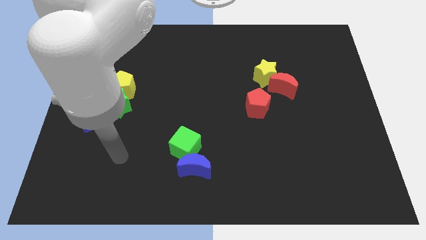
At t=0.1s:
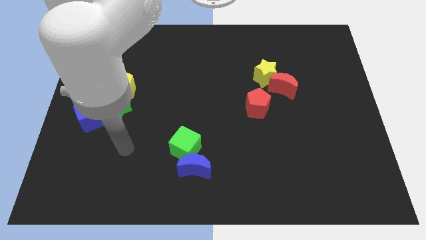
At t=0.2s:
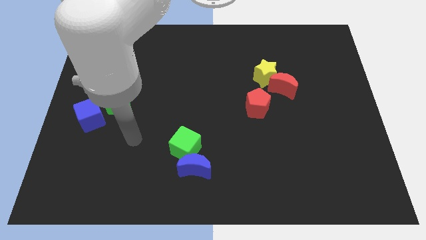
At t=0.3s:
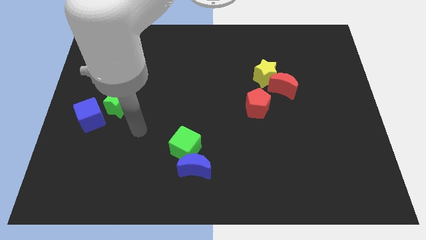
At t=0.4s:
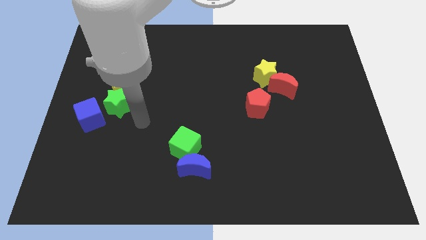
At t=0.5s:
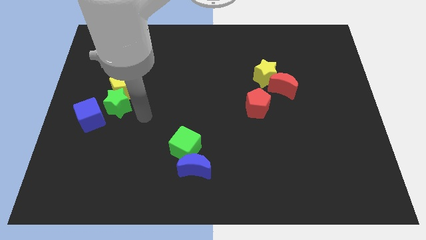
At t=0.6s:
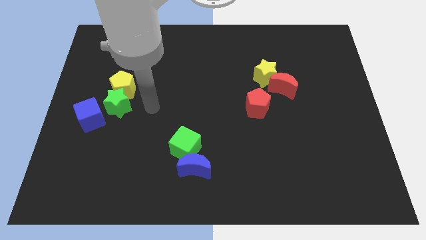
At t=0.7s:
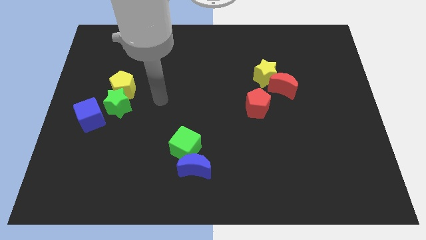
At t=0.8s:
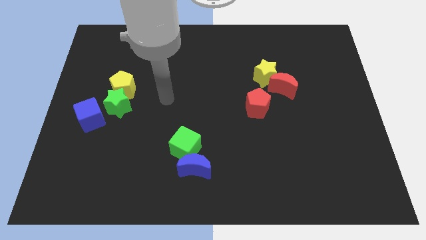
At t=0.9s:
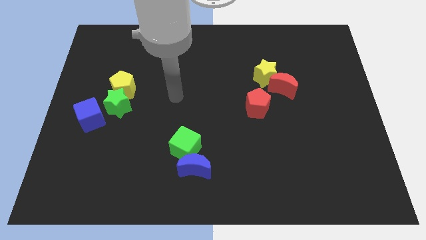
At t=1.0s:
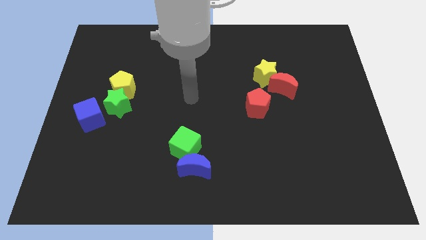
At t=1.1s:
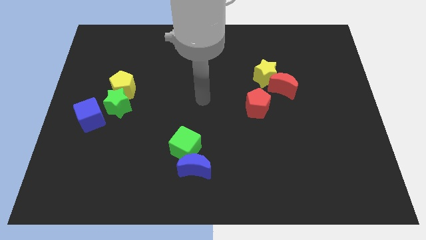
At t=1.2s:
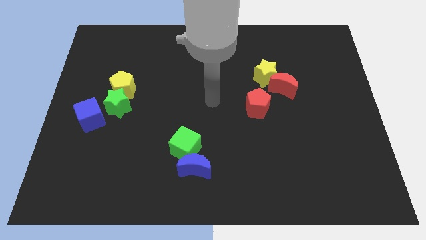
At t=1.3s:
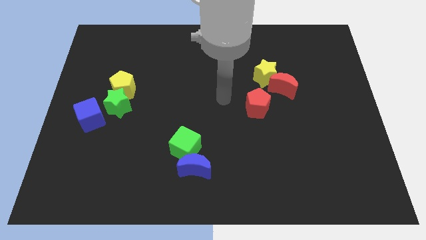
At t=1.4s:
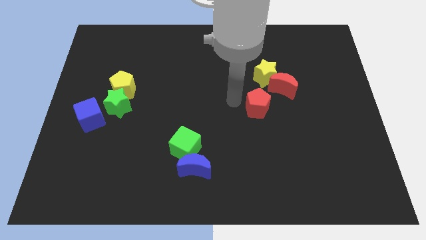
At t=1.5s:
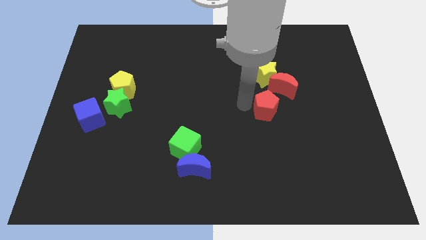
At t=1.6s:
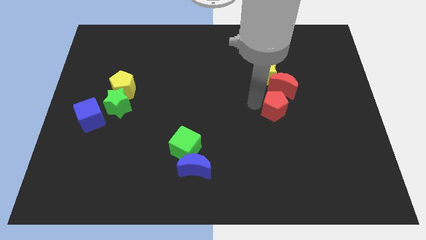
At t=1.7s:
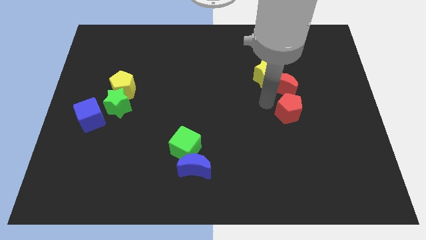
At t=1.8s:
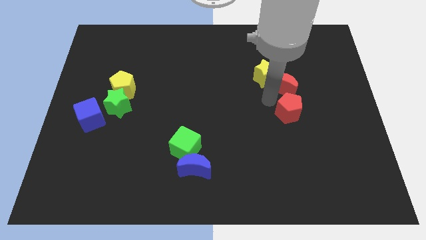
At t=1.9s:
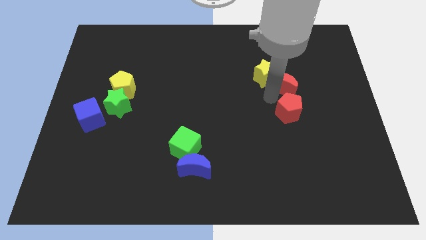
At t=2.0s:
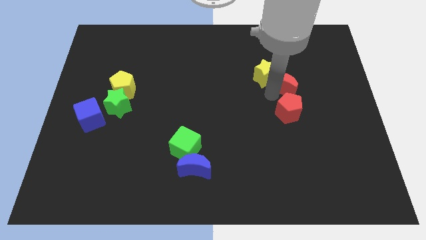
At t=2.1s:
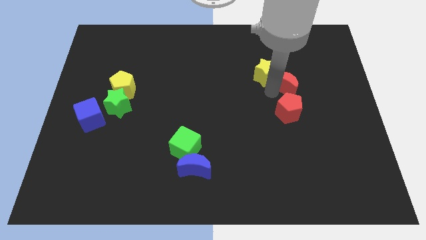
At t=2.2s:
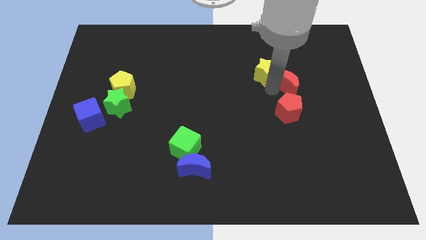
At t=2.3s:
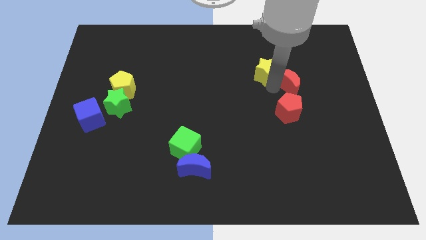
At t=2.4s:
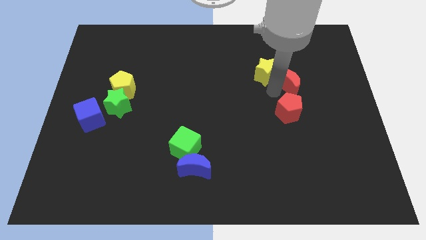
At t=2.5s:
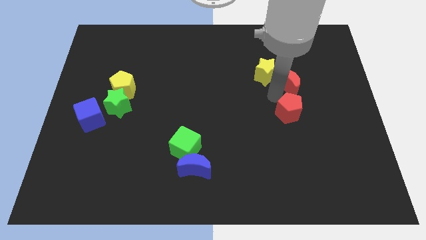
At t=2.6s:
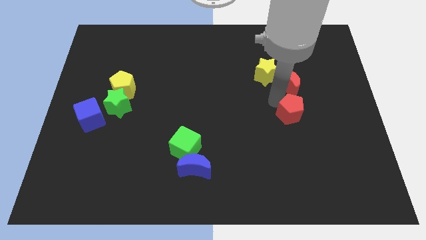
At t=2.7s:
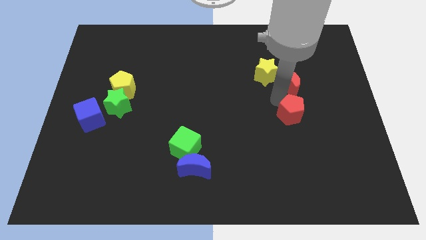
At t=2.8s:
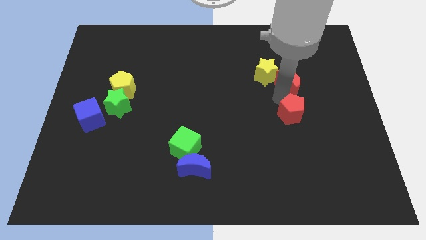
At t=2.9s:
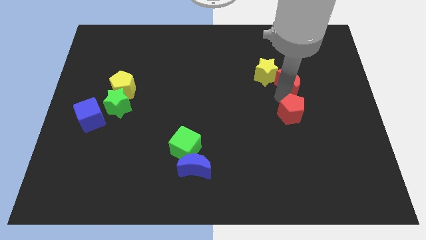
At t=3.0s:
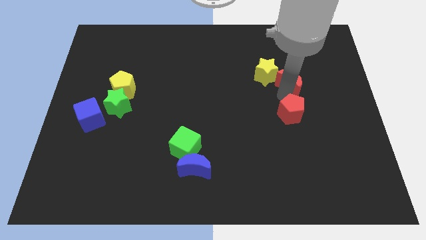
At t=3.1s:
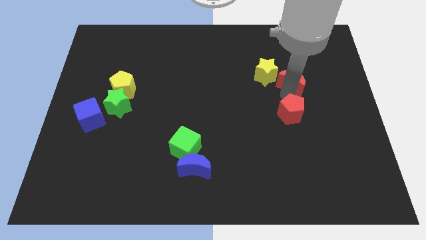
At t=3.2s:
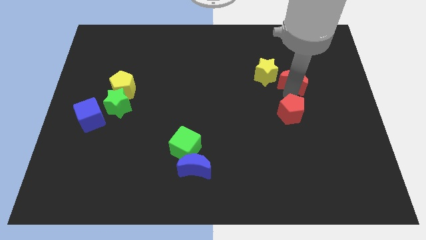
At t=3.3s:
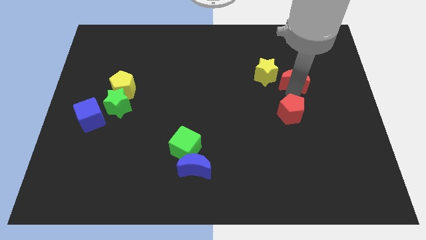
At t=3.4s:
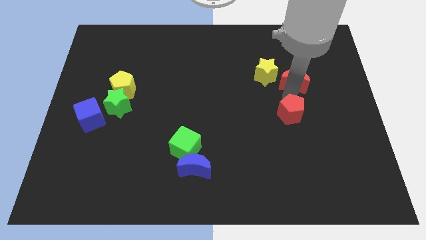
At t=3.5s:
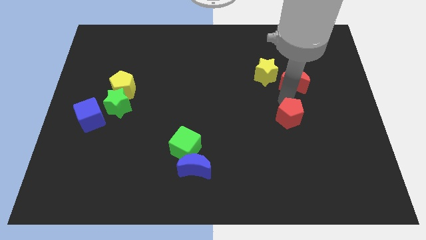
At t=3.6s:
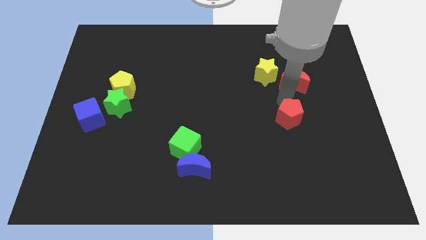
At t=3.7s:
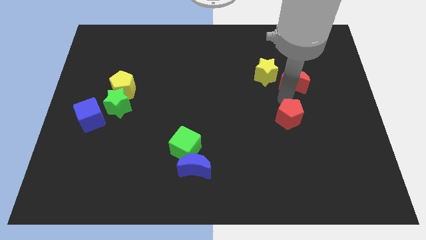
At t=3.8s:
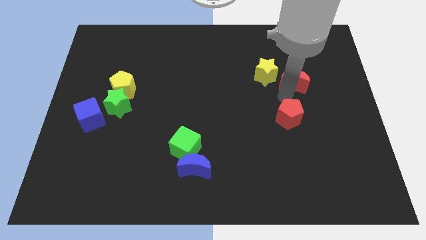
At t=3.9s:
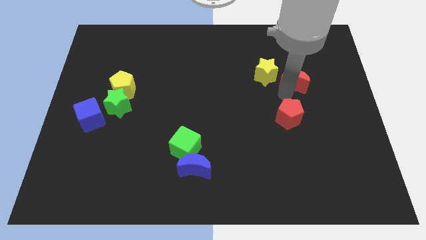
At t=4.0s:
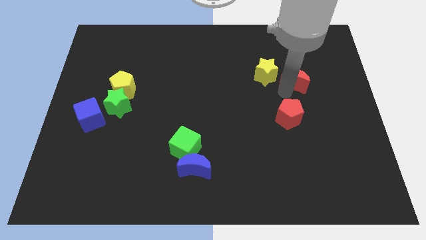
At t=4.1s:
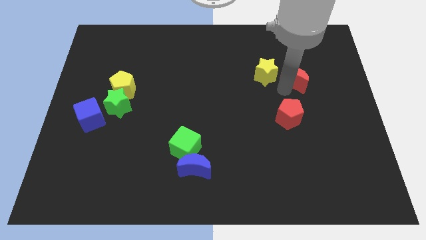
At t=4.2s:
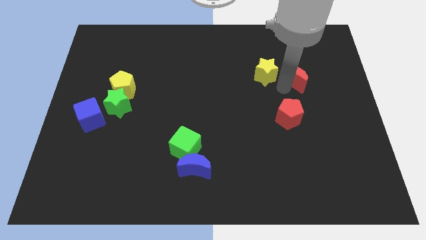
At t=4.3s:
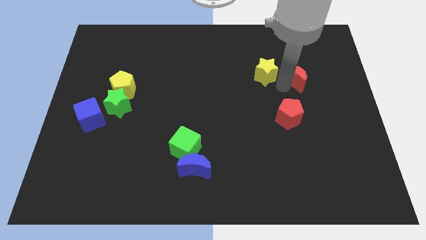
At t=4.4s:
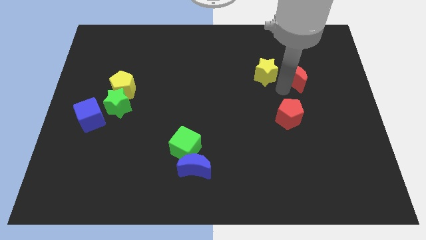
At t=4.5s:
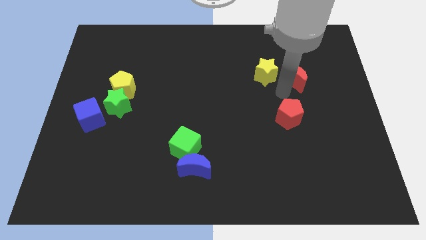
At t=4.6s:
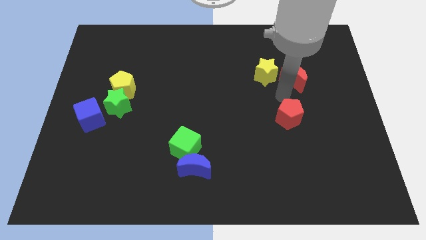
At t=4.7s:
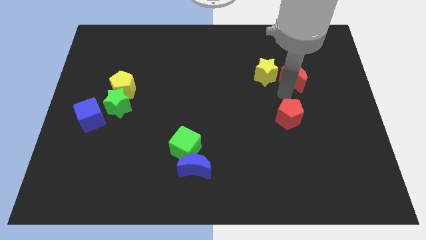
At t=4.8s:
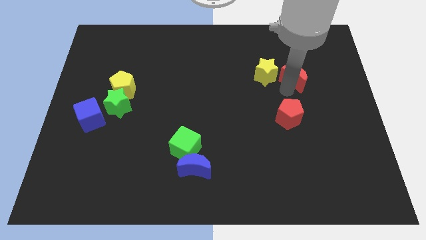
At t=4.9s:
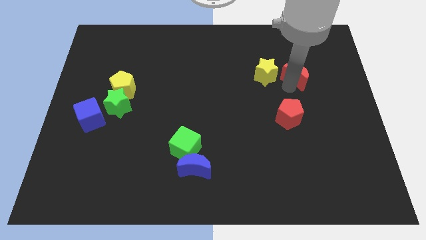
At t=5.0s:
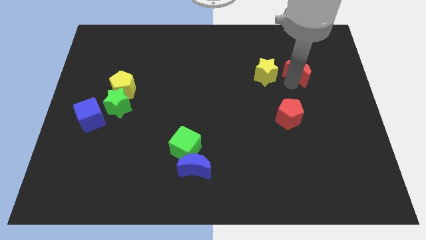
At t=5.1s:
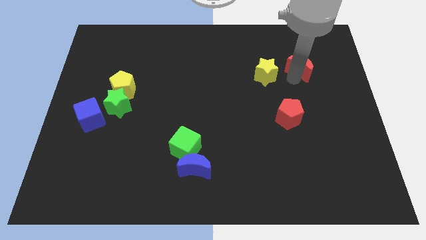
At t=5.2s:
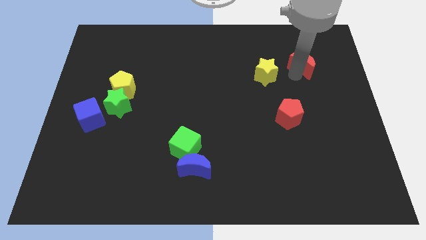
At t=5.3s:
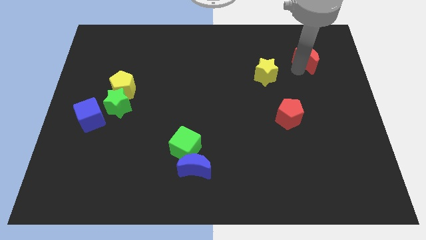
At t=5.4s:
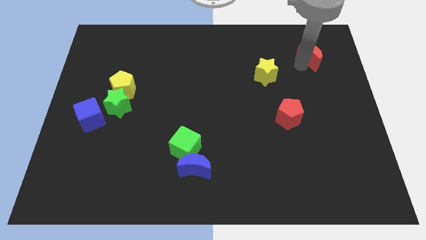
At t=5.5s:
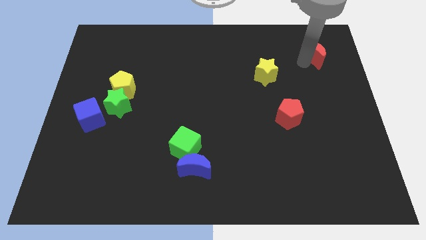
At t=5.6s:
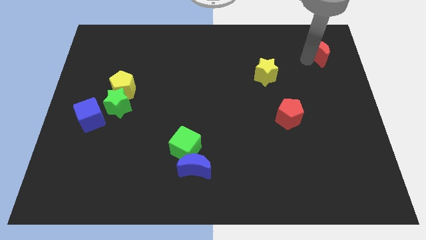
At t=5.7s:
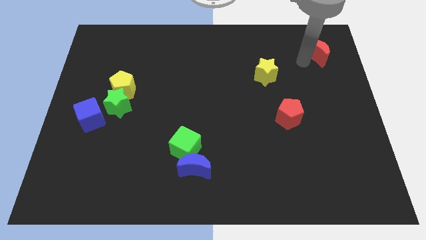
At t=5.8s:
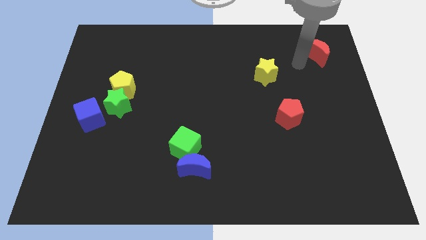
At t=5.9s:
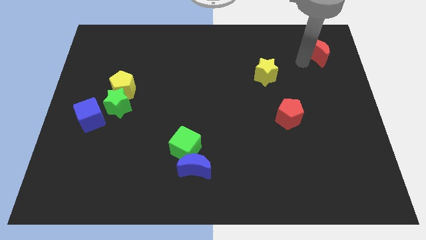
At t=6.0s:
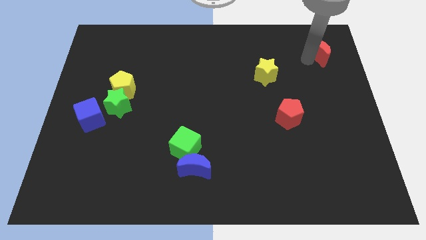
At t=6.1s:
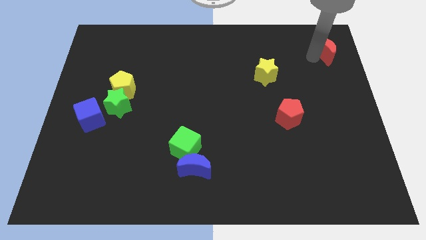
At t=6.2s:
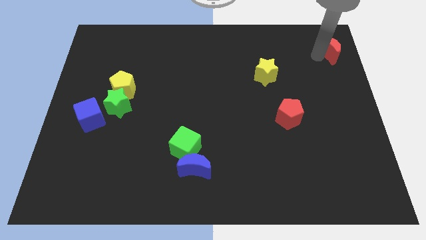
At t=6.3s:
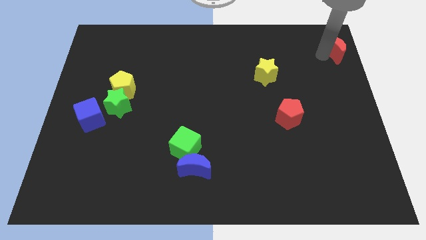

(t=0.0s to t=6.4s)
push the red moon to the top right of the board
